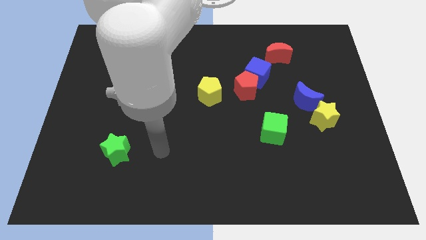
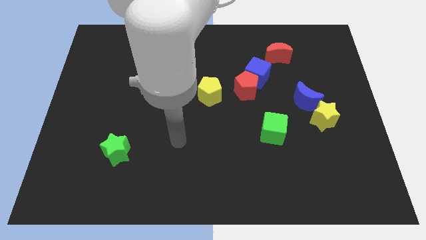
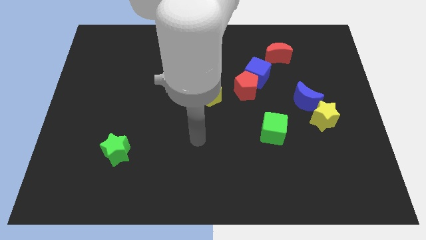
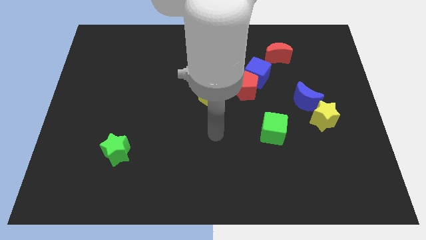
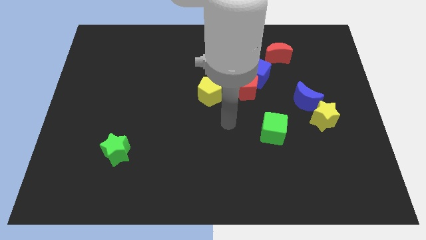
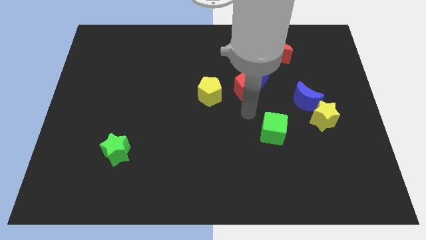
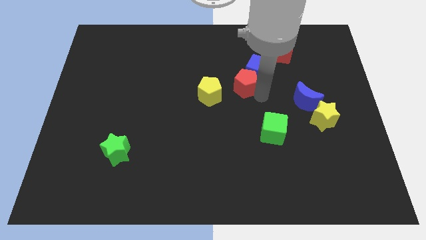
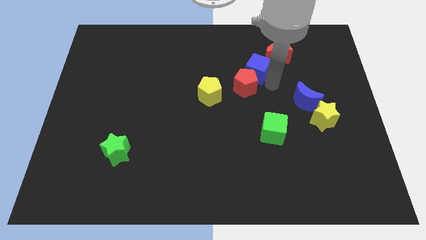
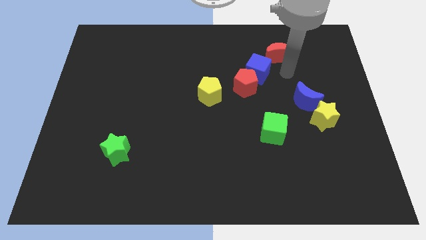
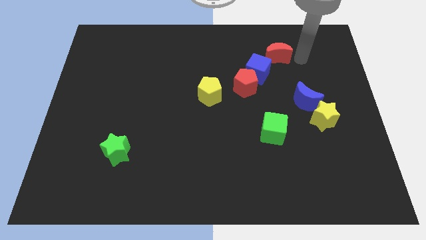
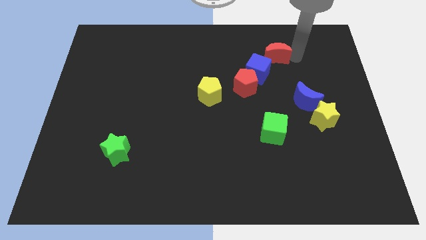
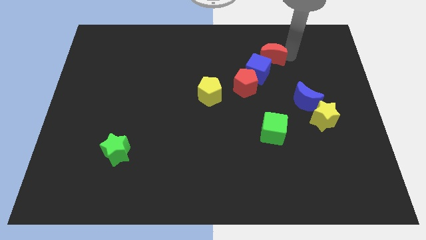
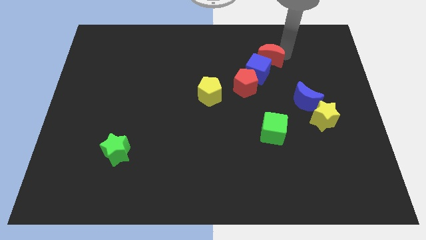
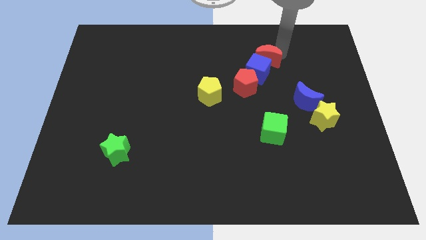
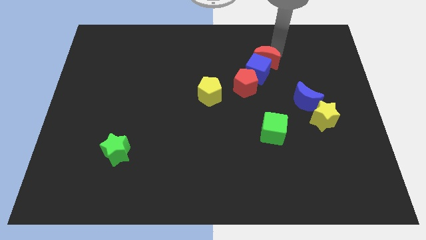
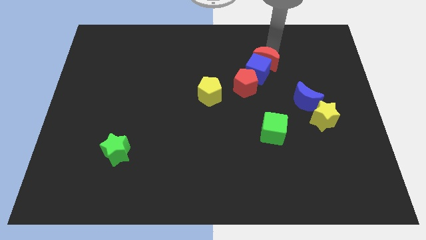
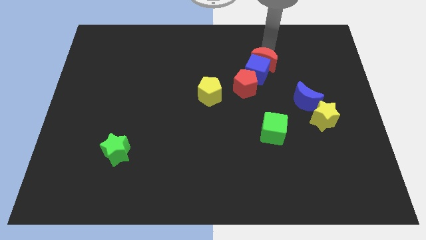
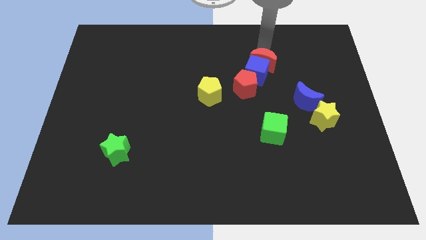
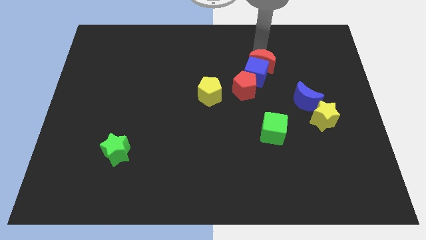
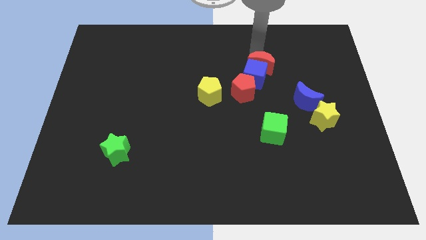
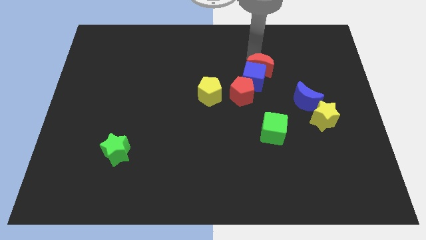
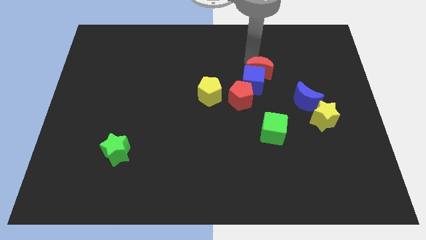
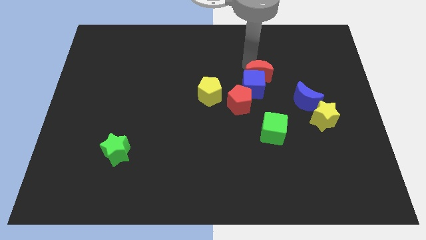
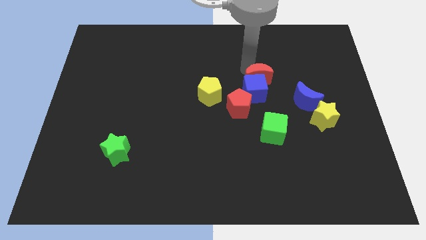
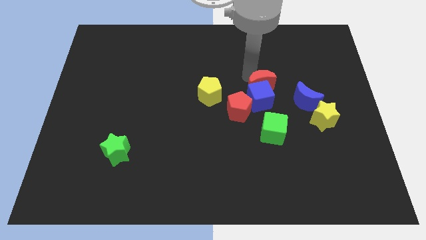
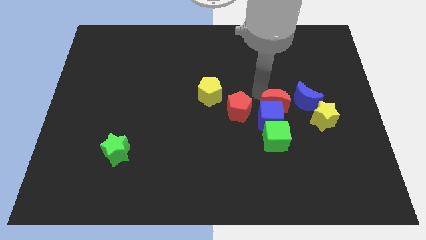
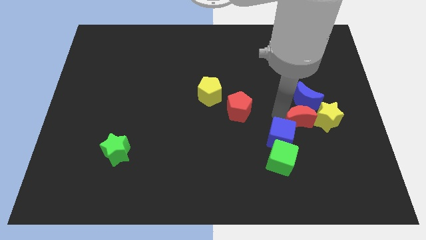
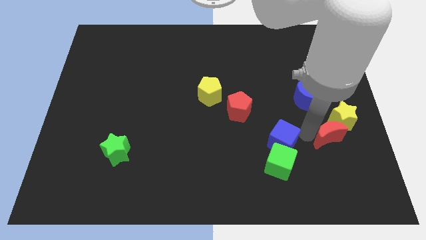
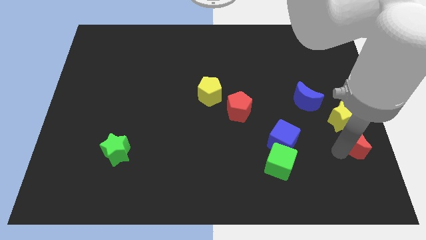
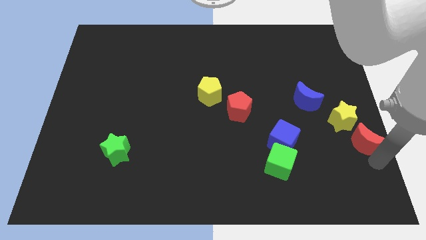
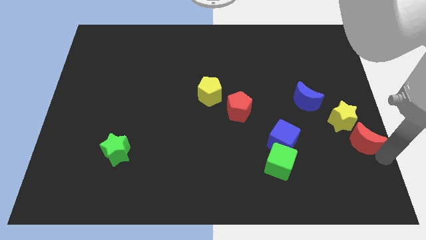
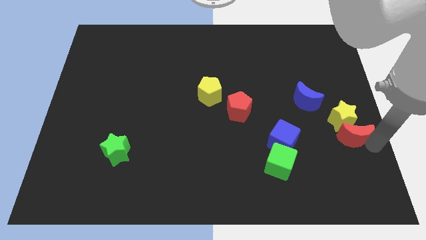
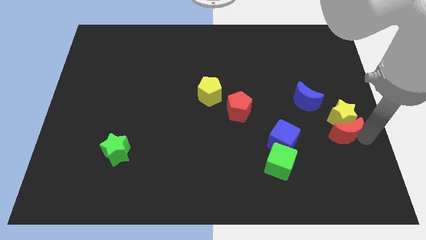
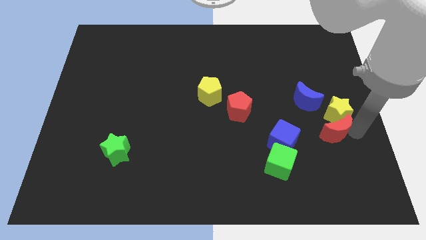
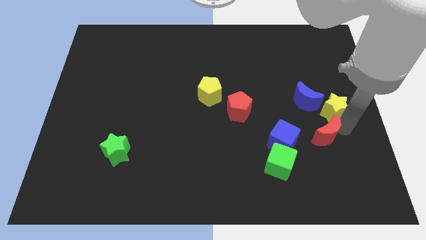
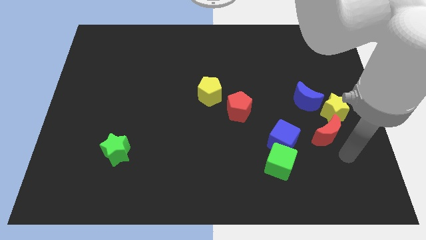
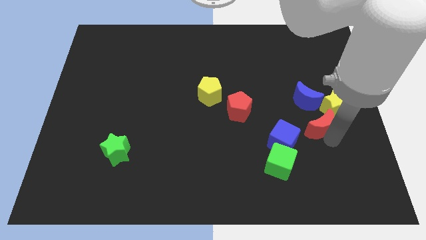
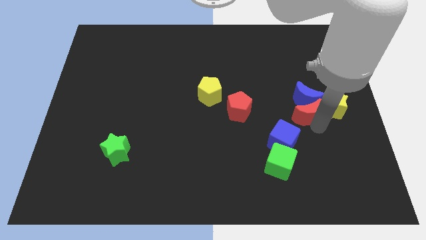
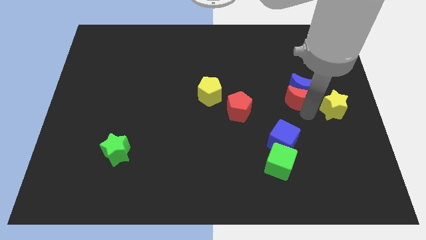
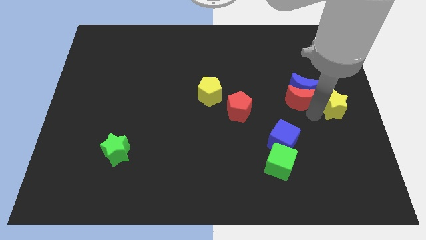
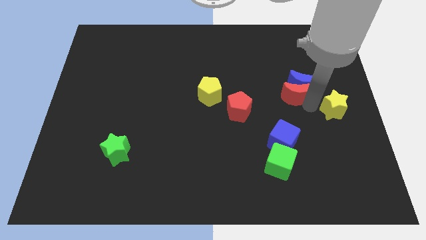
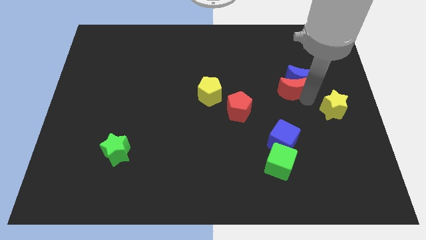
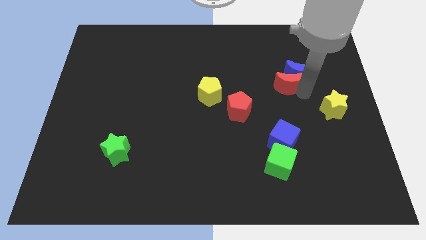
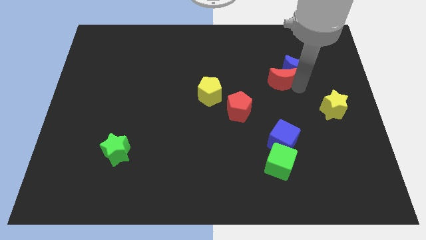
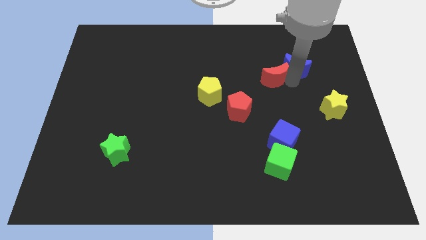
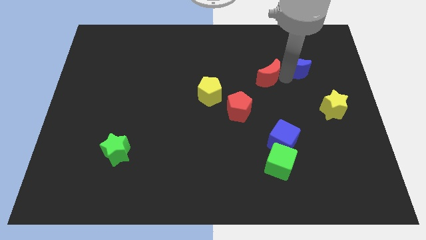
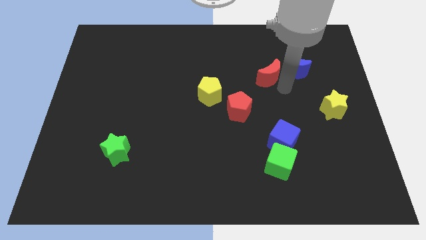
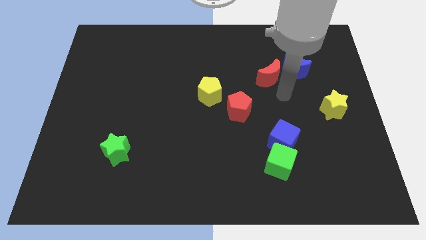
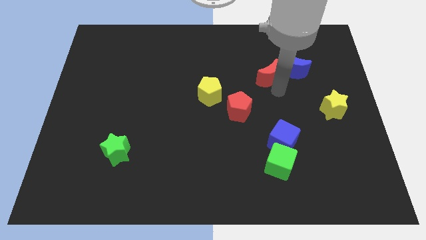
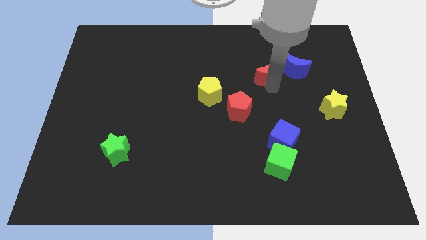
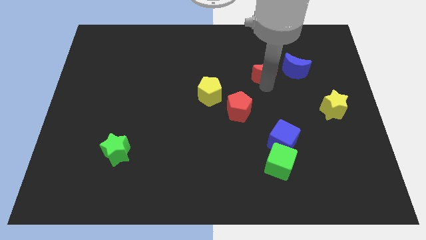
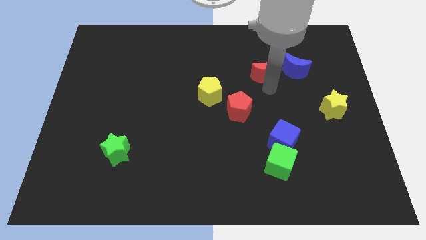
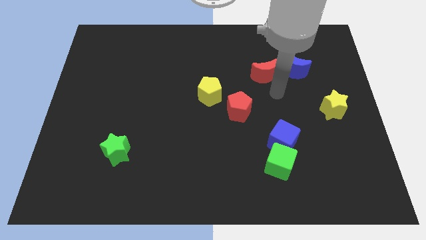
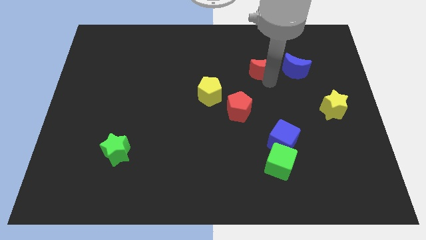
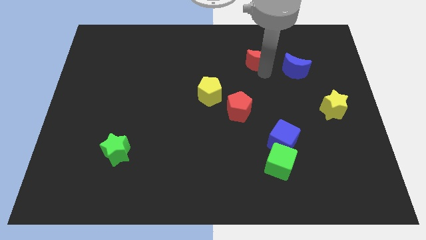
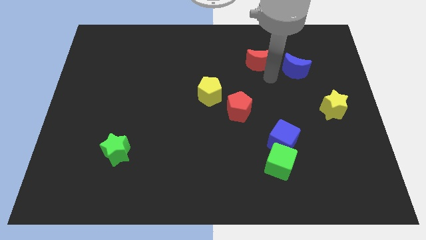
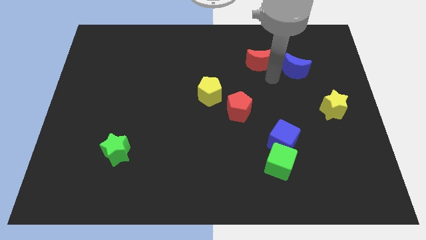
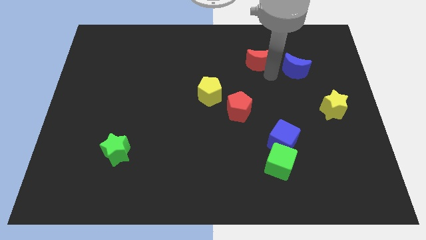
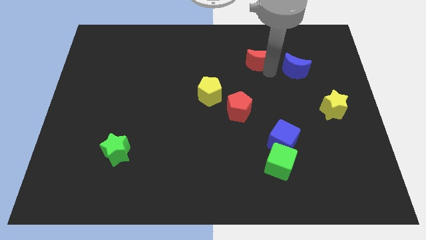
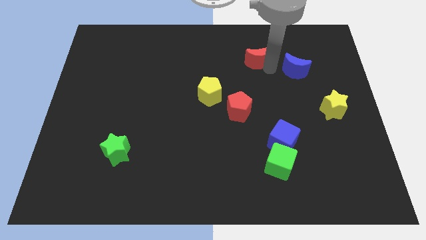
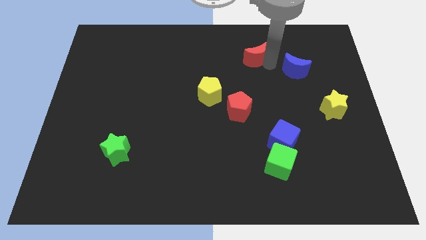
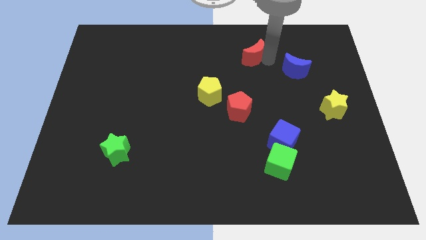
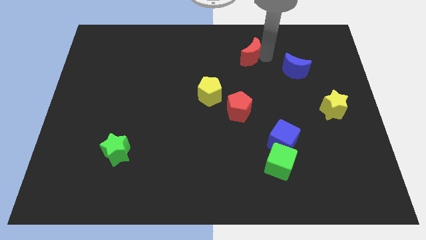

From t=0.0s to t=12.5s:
push the red moon to the left a little

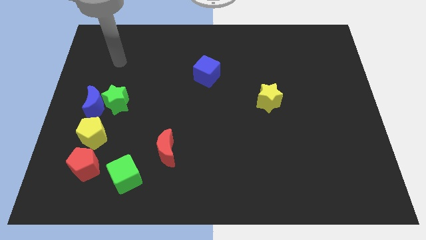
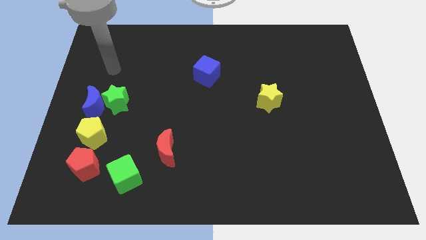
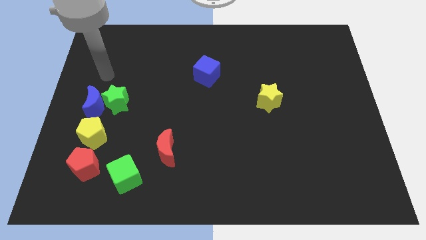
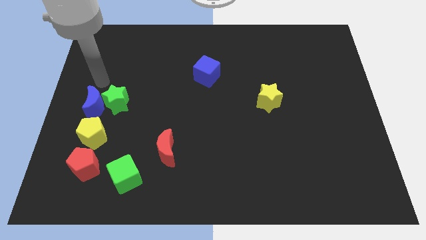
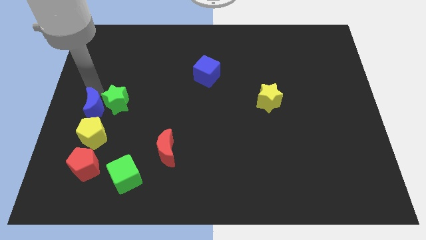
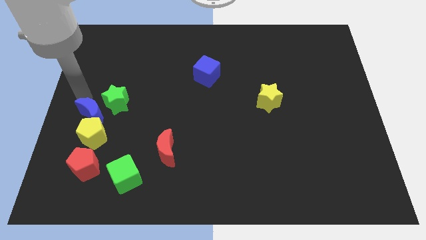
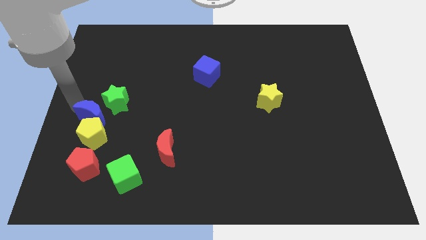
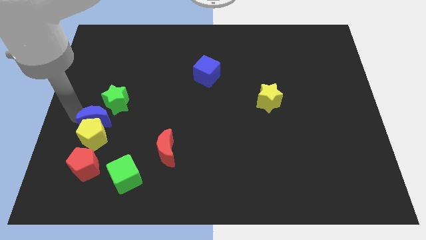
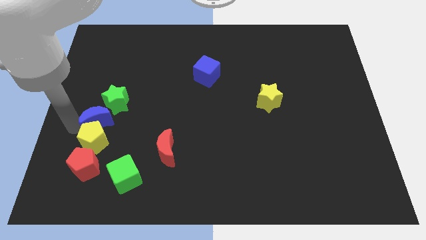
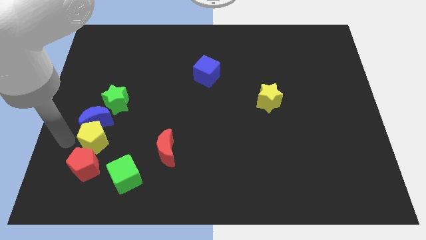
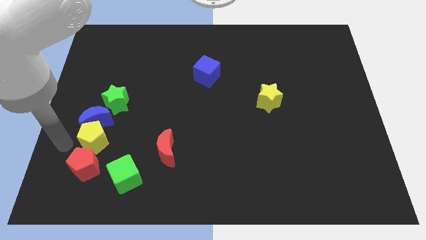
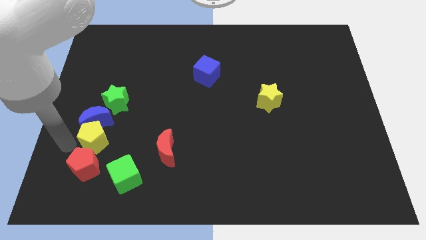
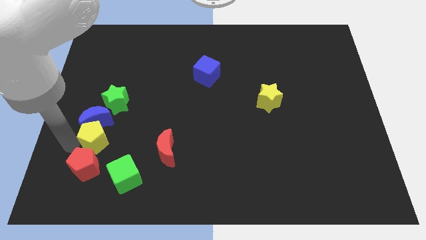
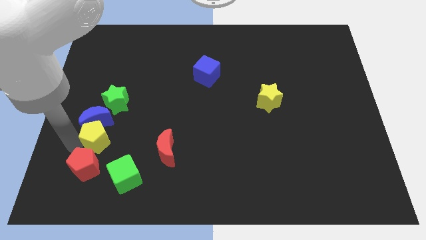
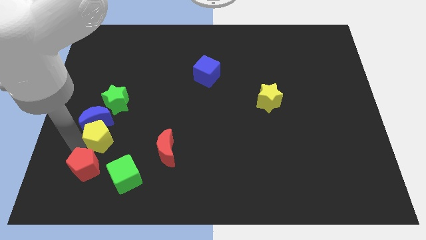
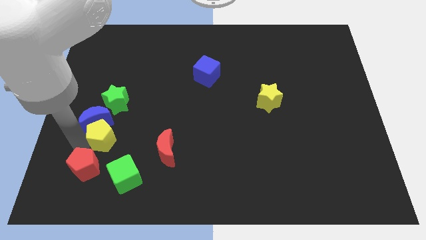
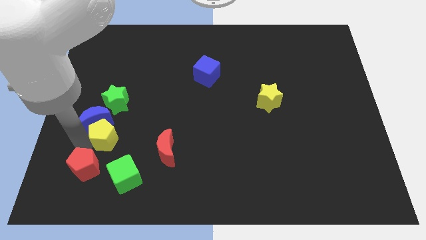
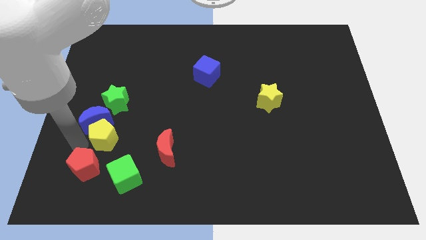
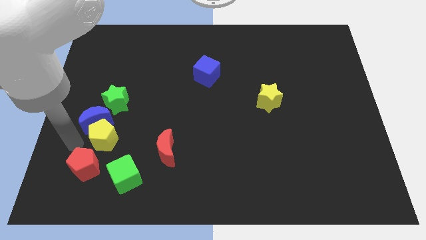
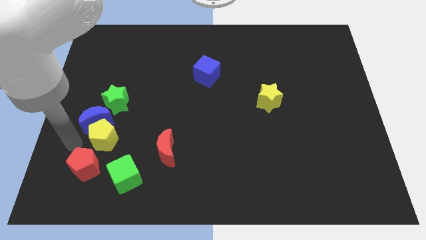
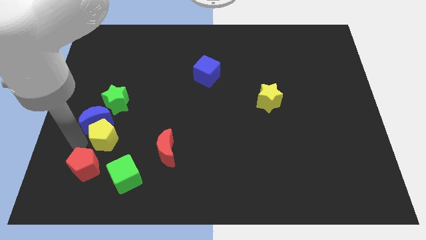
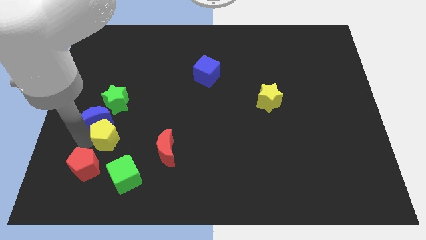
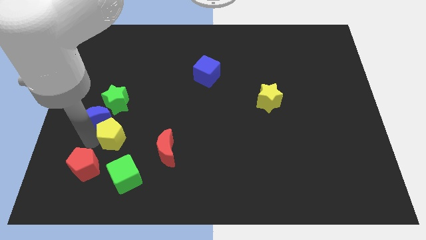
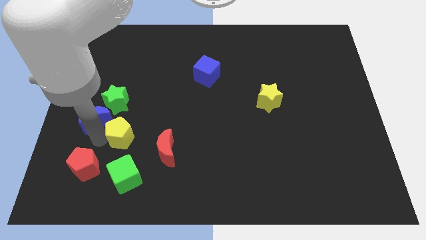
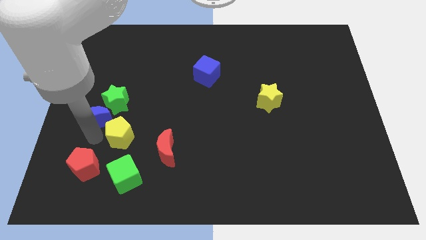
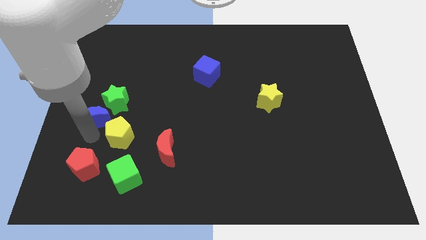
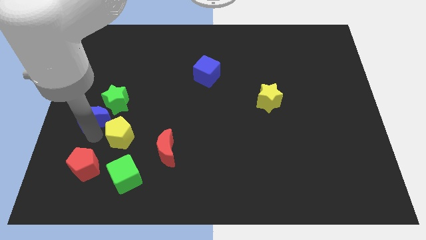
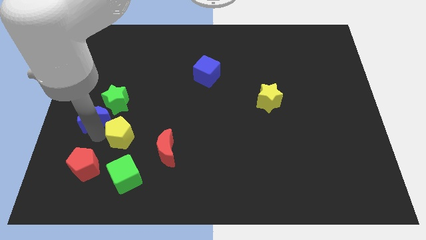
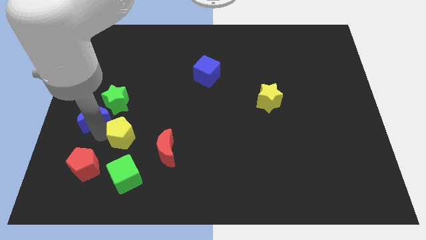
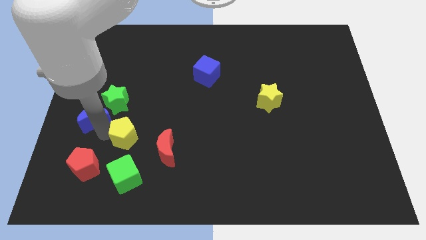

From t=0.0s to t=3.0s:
push the yellow pentagon slightly to the right
